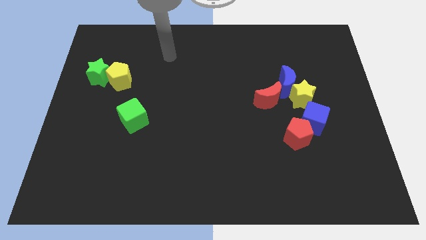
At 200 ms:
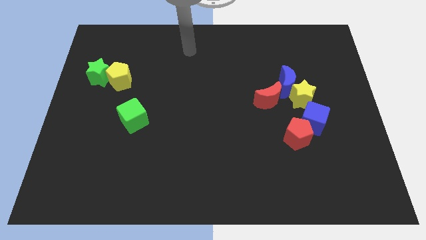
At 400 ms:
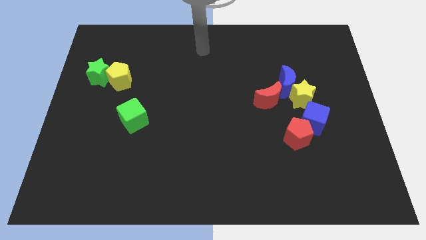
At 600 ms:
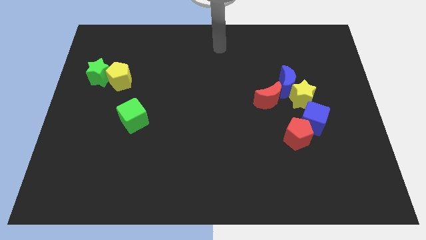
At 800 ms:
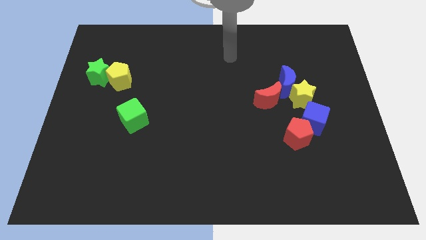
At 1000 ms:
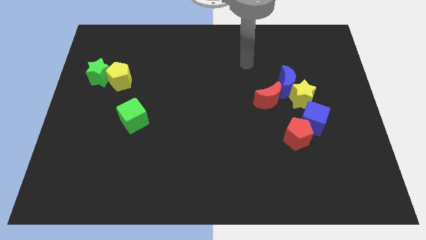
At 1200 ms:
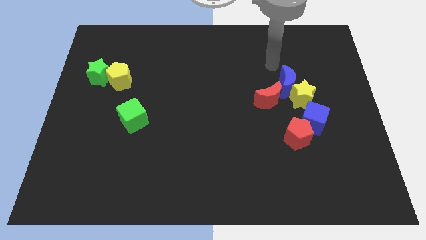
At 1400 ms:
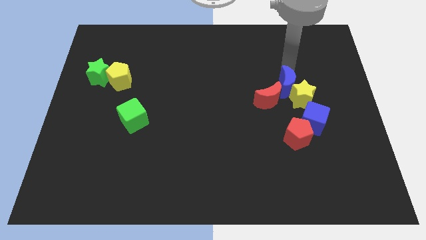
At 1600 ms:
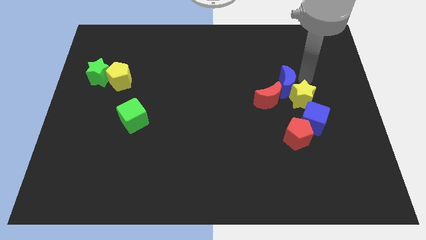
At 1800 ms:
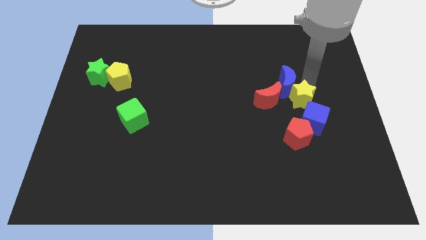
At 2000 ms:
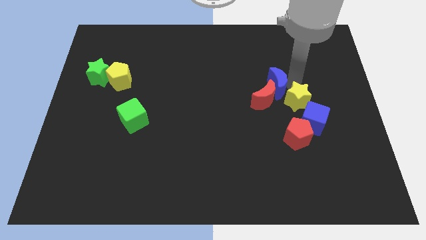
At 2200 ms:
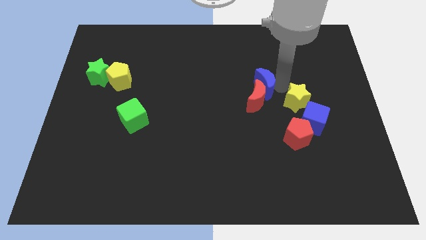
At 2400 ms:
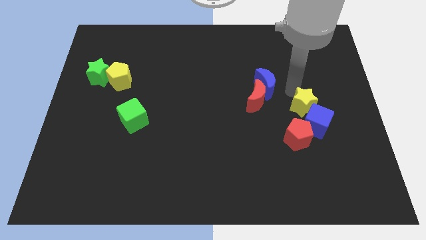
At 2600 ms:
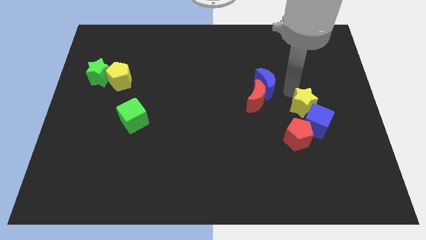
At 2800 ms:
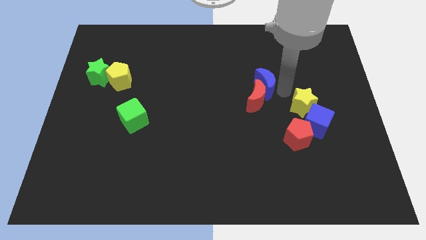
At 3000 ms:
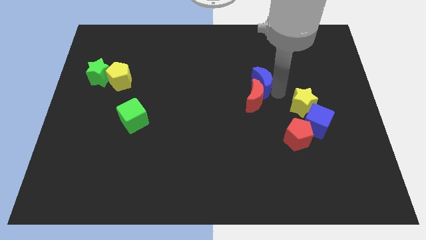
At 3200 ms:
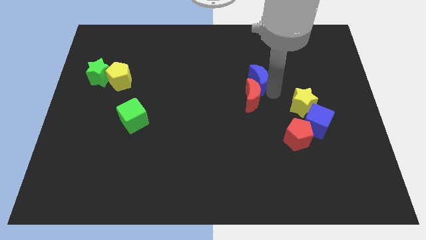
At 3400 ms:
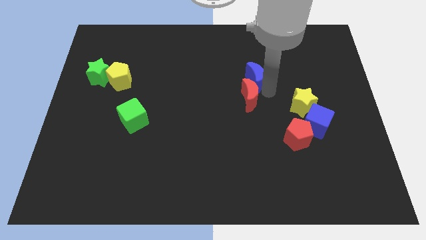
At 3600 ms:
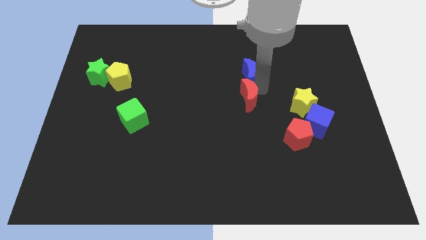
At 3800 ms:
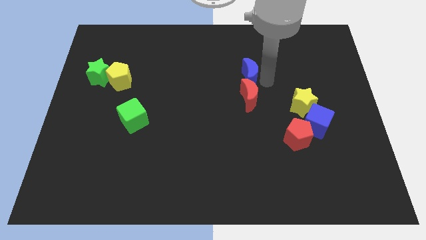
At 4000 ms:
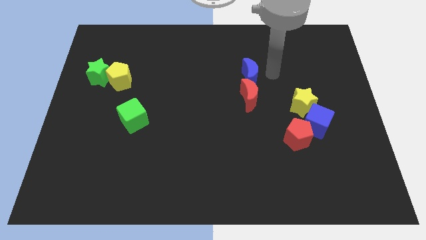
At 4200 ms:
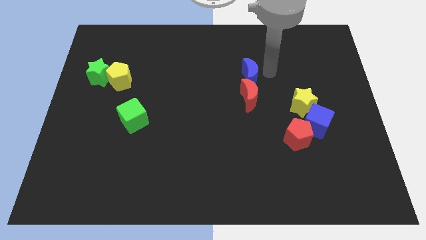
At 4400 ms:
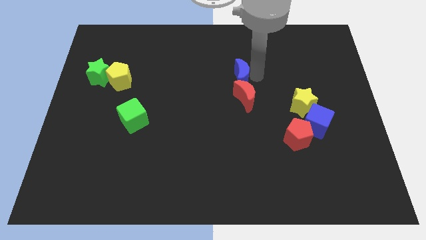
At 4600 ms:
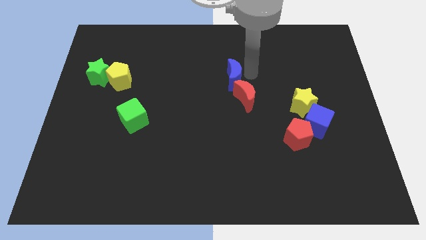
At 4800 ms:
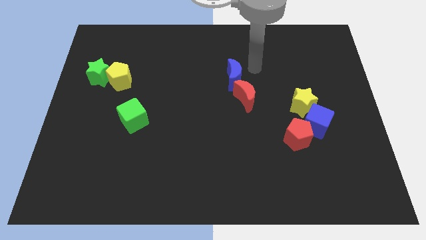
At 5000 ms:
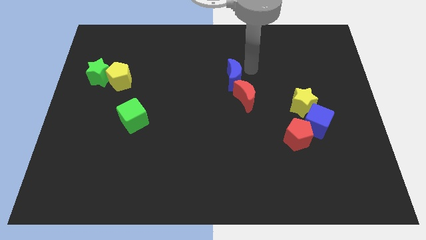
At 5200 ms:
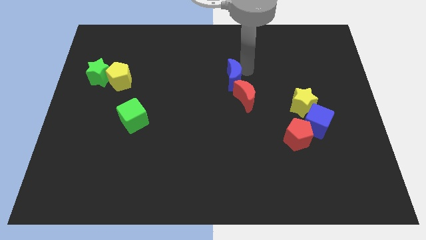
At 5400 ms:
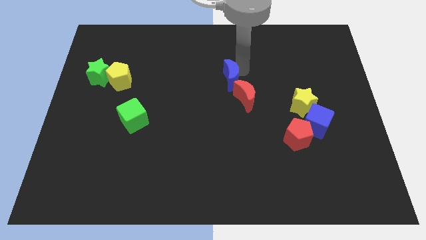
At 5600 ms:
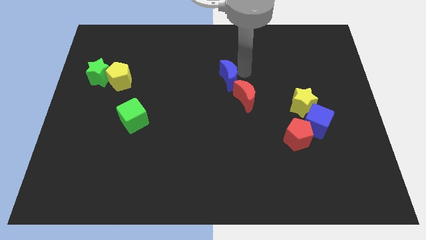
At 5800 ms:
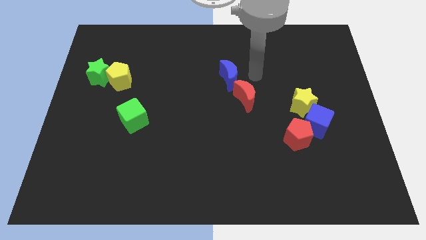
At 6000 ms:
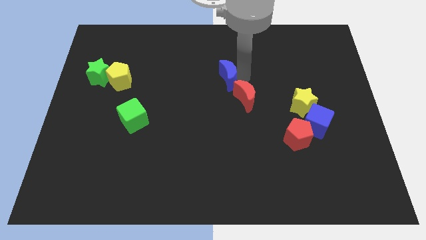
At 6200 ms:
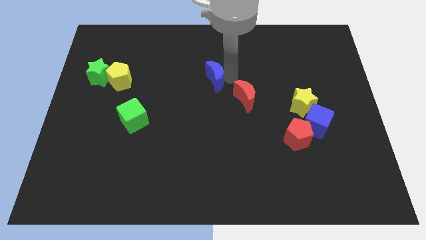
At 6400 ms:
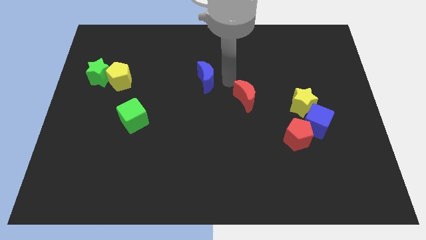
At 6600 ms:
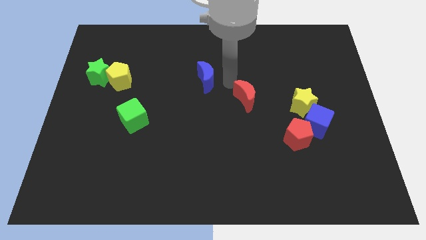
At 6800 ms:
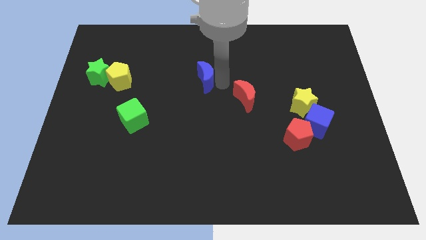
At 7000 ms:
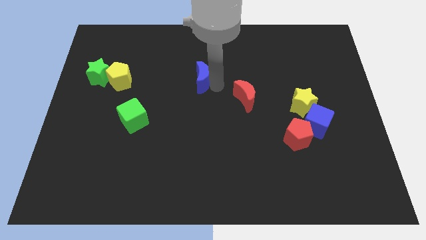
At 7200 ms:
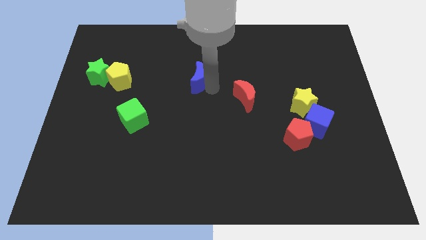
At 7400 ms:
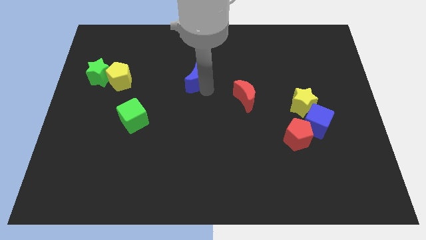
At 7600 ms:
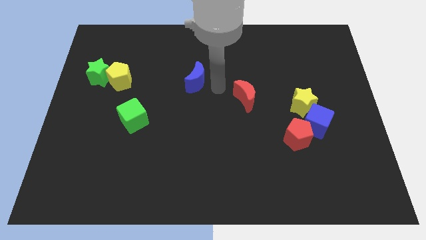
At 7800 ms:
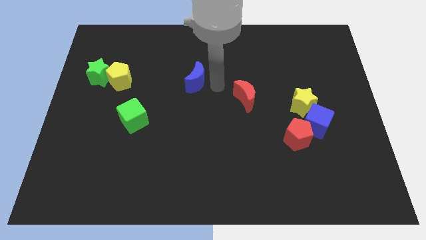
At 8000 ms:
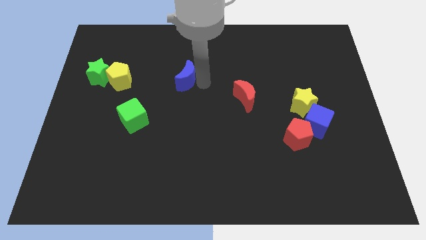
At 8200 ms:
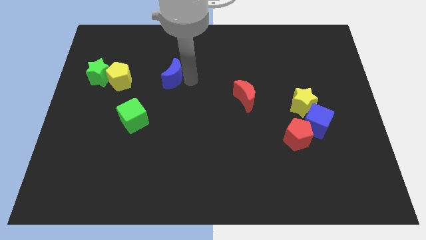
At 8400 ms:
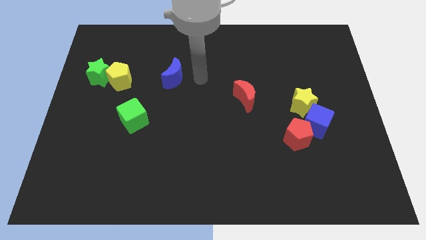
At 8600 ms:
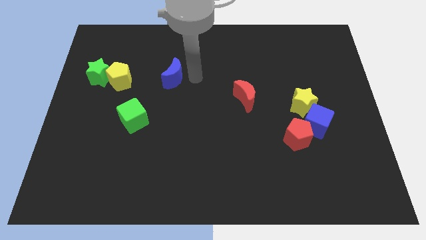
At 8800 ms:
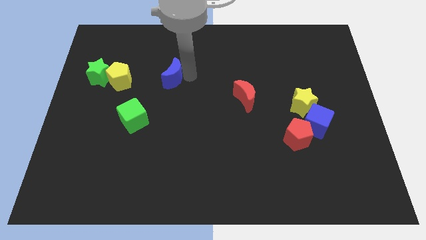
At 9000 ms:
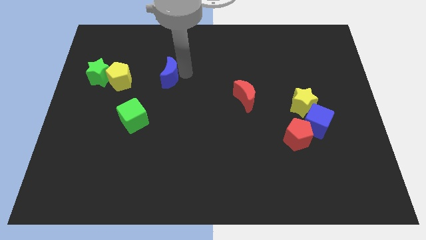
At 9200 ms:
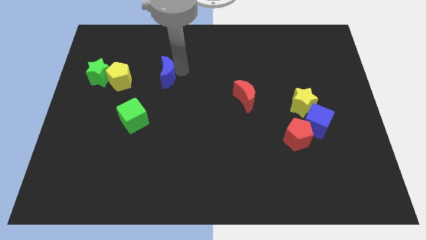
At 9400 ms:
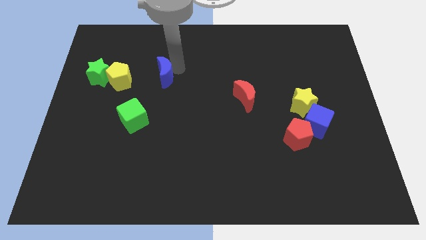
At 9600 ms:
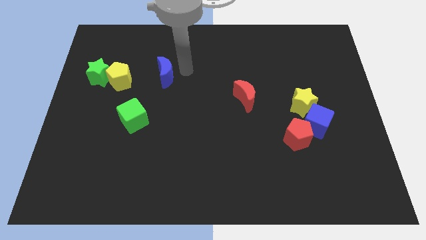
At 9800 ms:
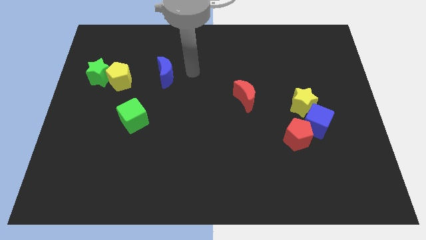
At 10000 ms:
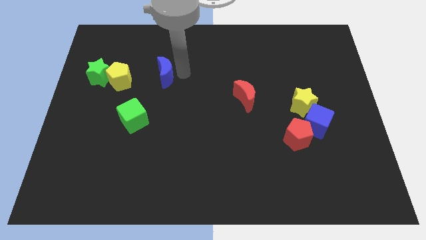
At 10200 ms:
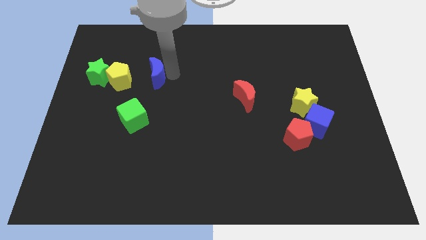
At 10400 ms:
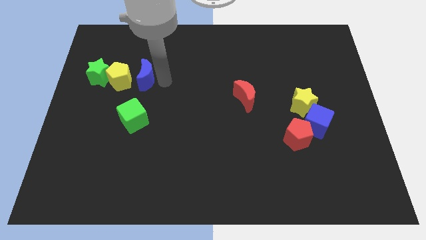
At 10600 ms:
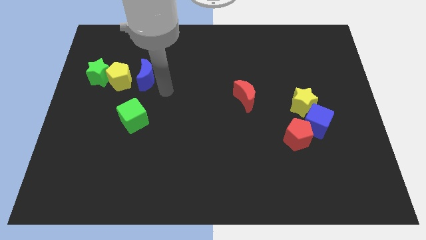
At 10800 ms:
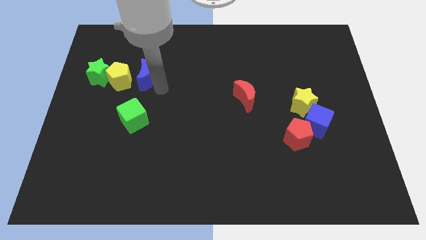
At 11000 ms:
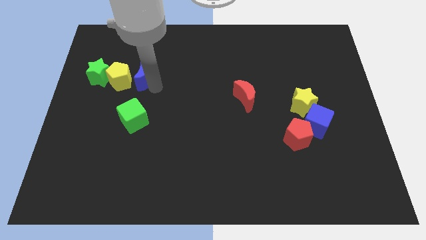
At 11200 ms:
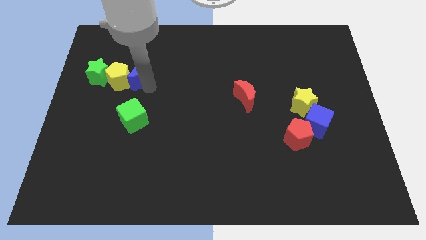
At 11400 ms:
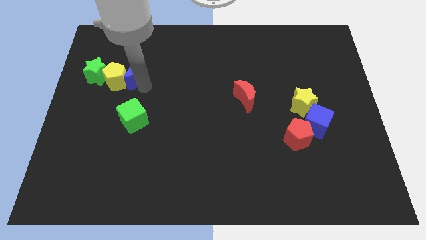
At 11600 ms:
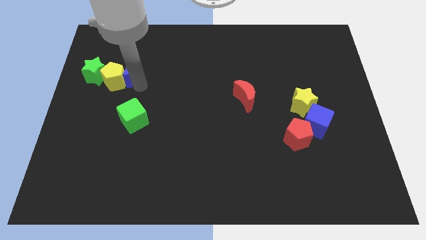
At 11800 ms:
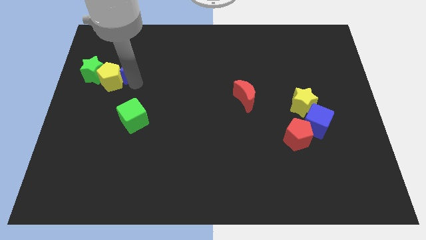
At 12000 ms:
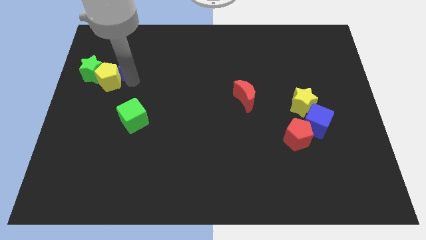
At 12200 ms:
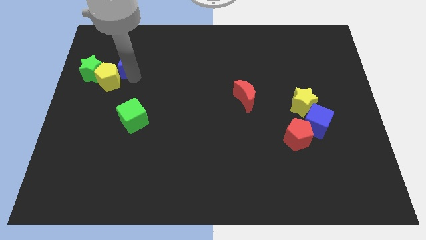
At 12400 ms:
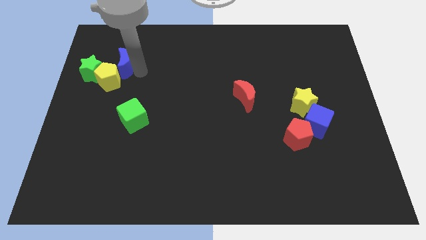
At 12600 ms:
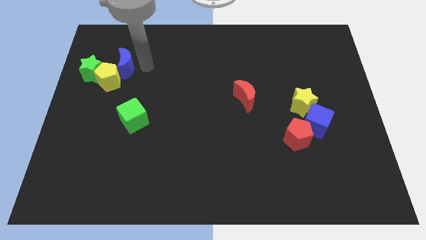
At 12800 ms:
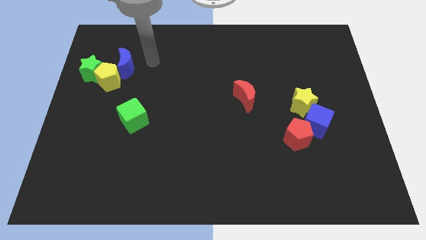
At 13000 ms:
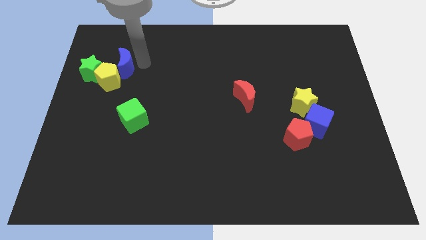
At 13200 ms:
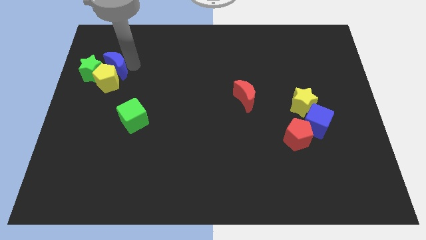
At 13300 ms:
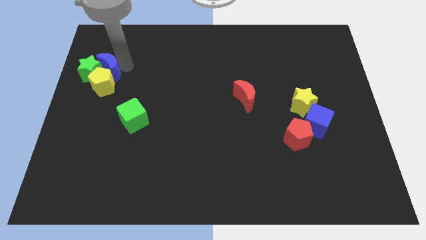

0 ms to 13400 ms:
move the blue moon towards the green star

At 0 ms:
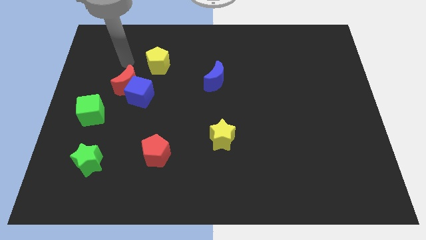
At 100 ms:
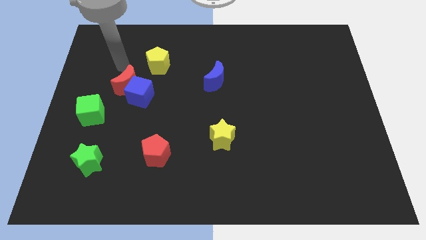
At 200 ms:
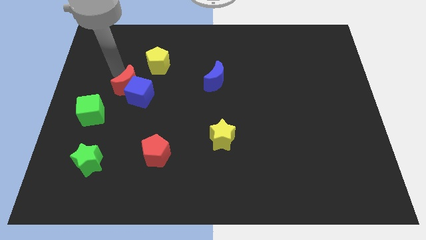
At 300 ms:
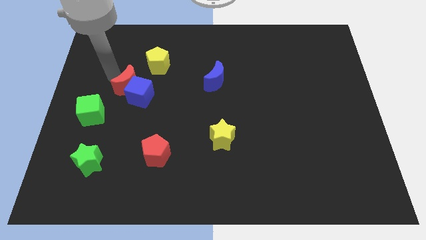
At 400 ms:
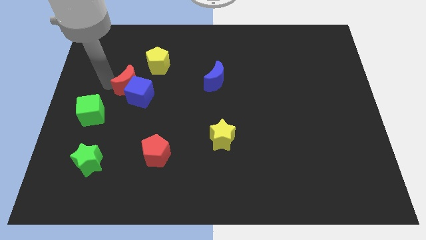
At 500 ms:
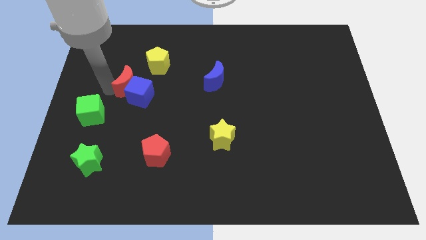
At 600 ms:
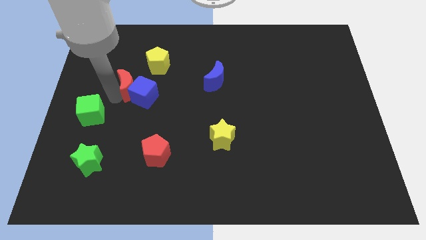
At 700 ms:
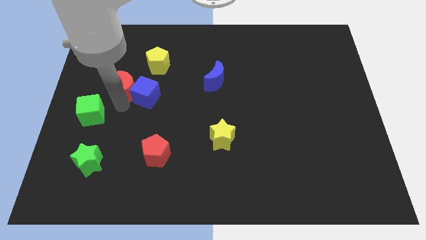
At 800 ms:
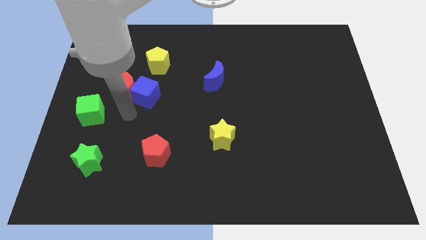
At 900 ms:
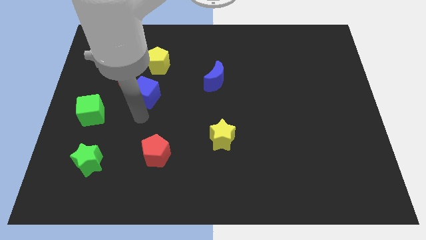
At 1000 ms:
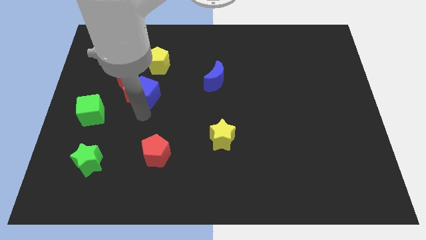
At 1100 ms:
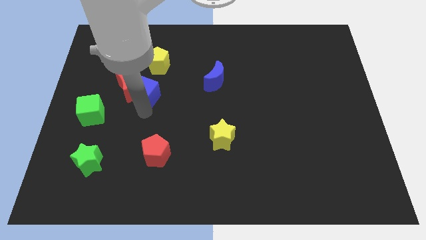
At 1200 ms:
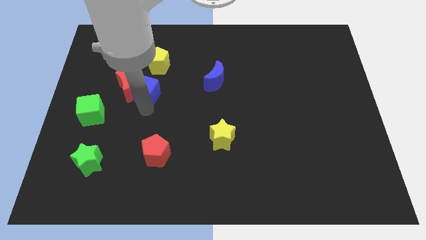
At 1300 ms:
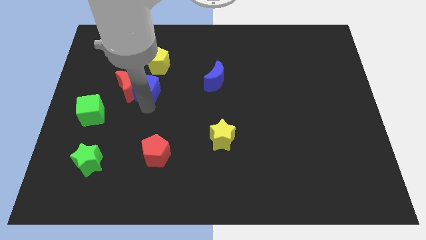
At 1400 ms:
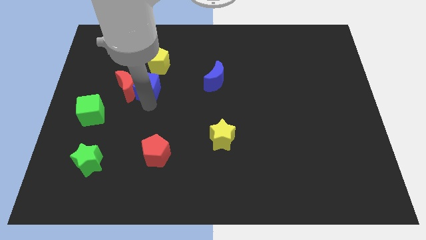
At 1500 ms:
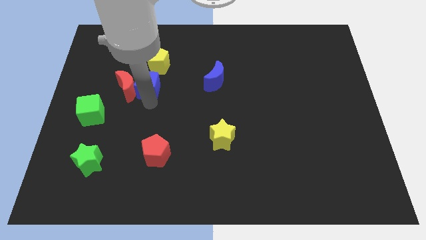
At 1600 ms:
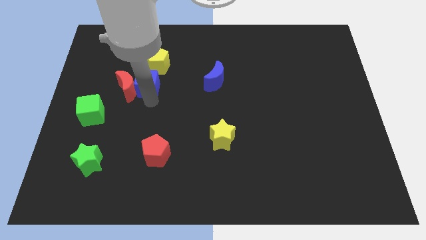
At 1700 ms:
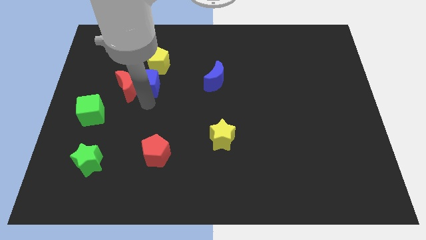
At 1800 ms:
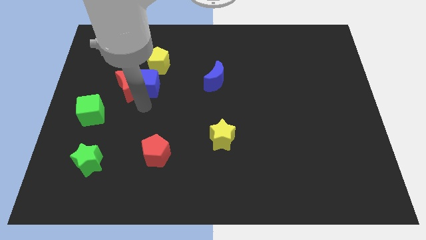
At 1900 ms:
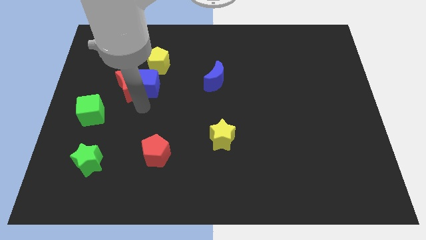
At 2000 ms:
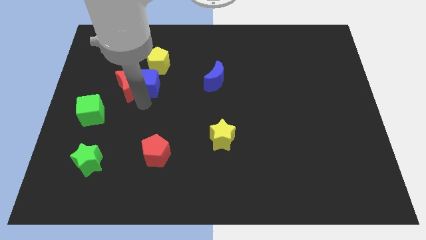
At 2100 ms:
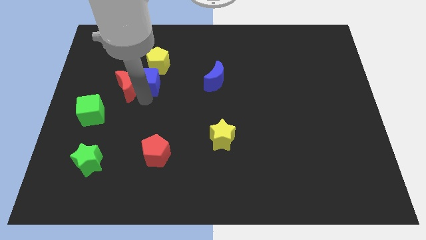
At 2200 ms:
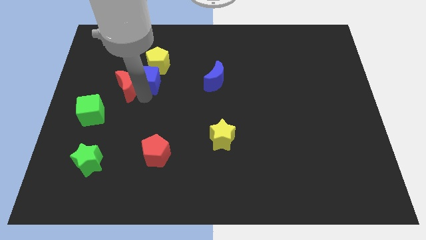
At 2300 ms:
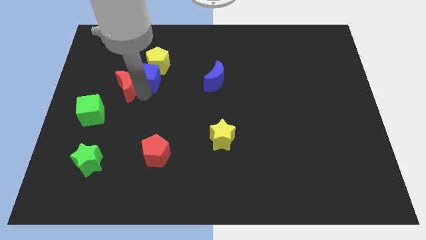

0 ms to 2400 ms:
move the blue cube next to the yellow pentagon
